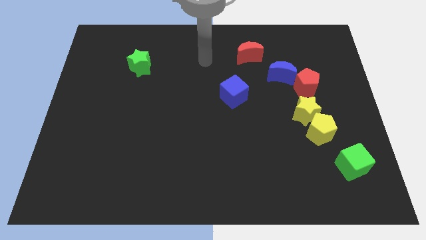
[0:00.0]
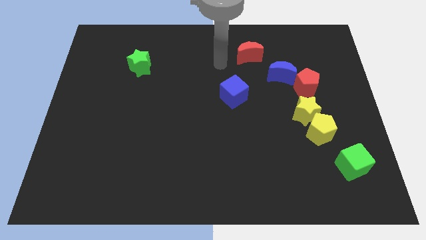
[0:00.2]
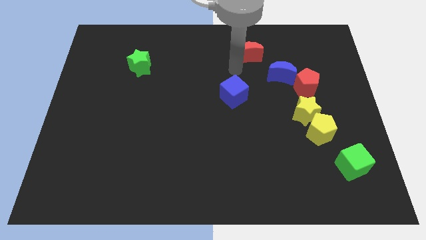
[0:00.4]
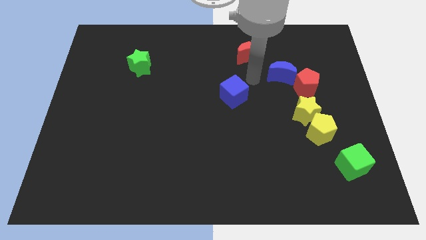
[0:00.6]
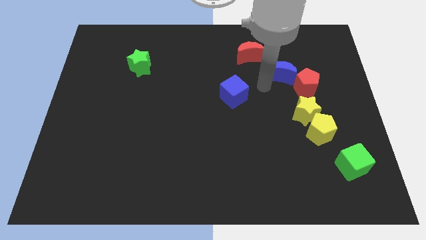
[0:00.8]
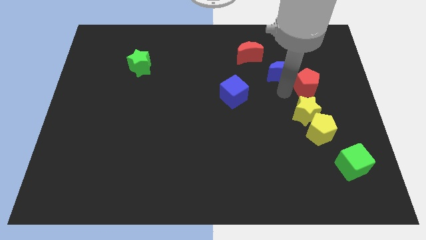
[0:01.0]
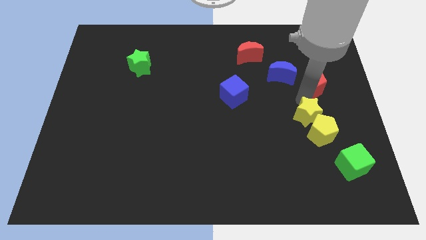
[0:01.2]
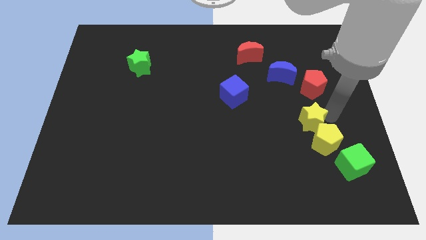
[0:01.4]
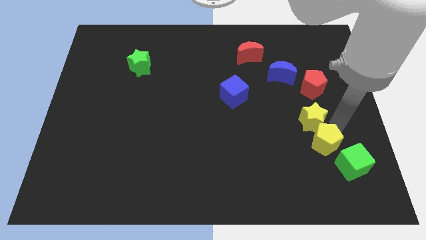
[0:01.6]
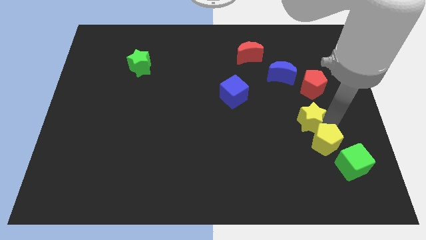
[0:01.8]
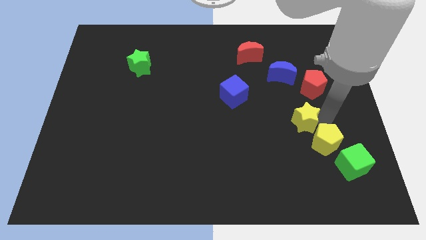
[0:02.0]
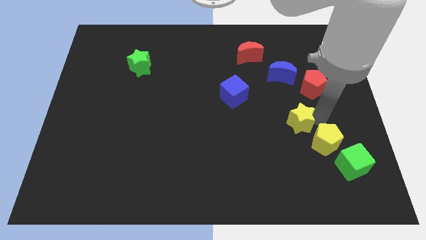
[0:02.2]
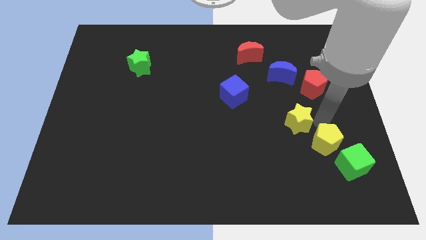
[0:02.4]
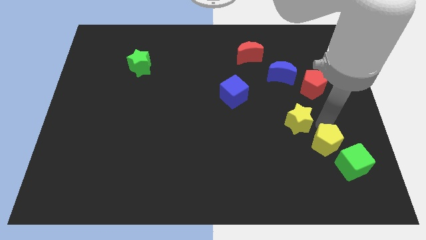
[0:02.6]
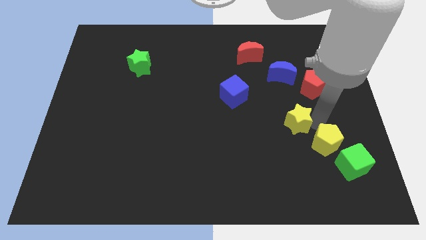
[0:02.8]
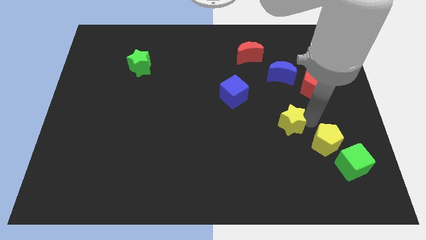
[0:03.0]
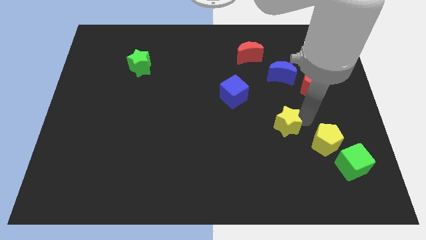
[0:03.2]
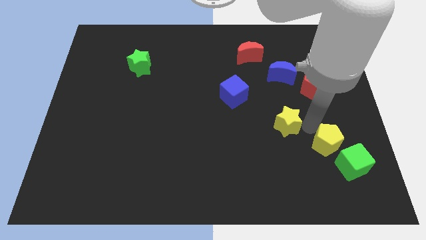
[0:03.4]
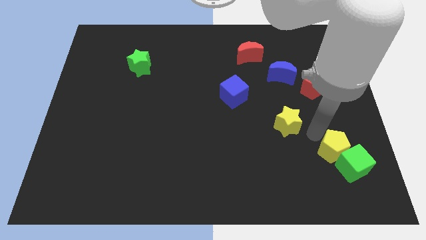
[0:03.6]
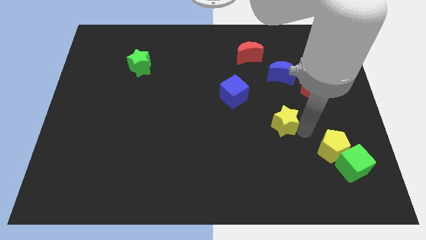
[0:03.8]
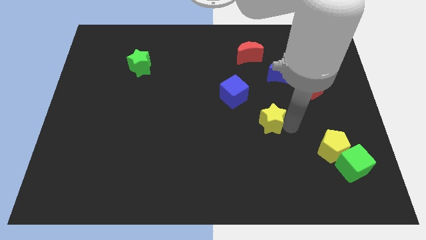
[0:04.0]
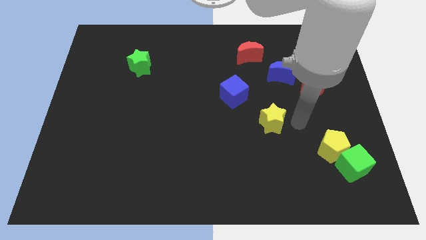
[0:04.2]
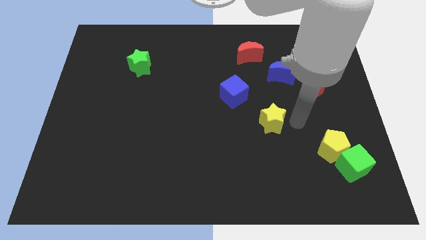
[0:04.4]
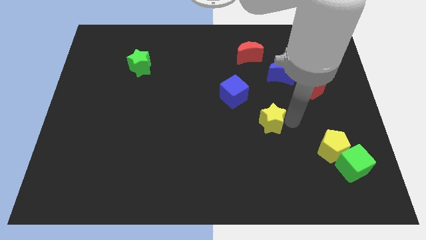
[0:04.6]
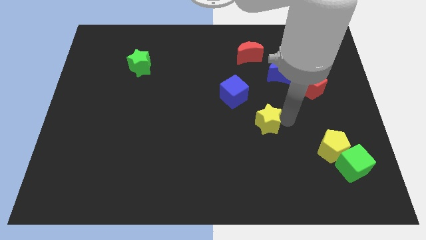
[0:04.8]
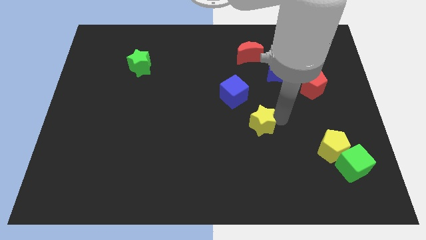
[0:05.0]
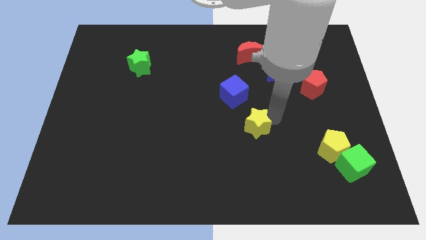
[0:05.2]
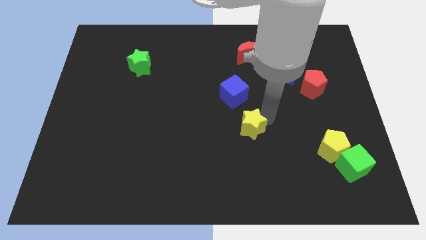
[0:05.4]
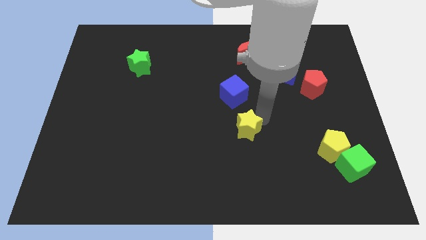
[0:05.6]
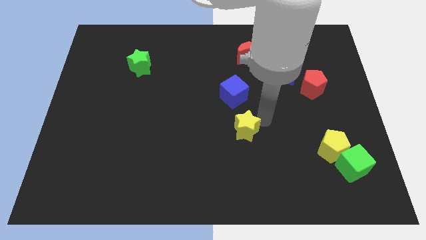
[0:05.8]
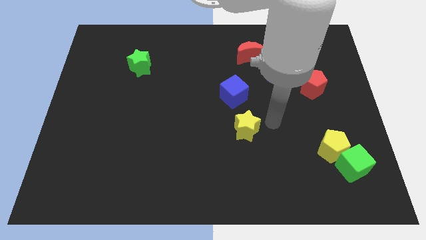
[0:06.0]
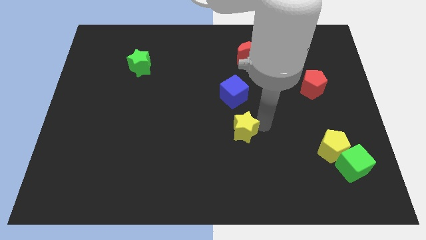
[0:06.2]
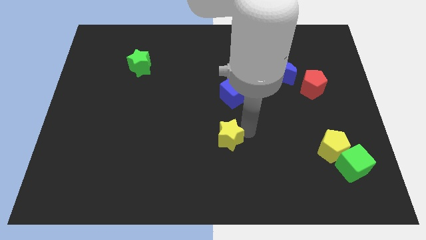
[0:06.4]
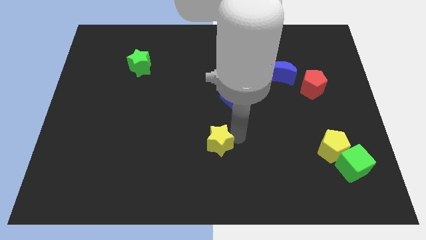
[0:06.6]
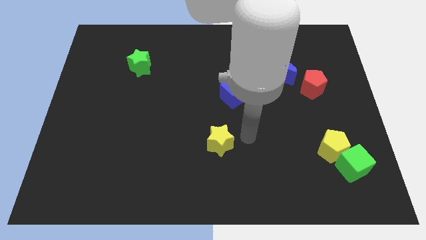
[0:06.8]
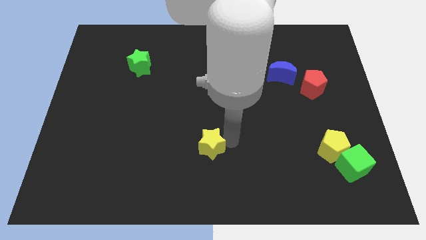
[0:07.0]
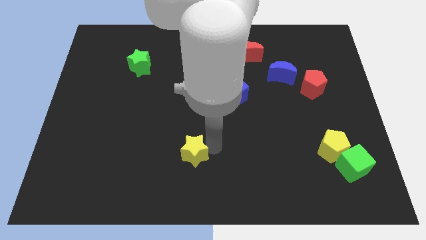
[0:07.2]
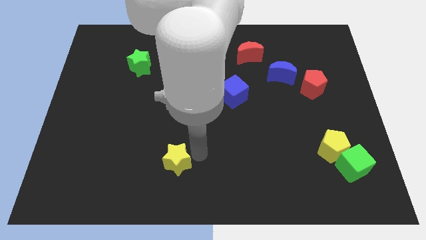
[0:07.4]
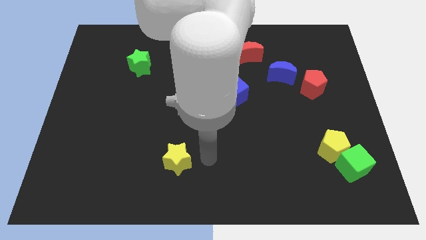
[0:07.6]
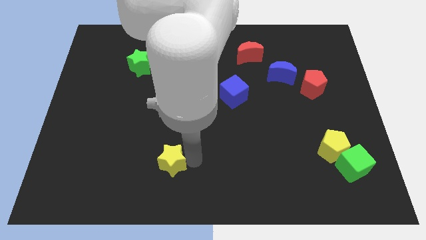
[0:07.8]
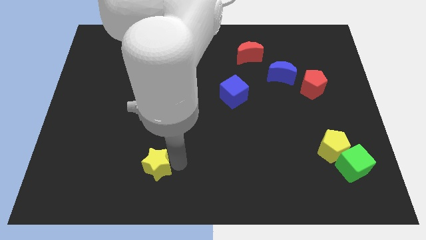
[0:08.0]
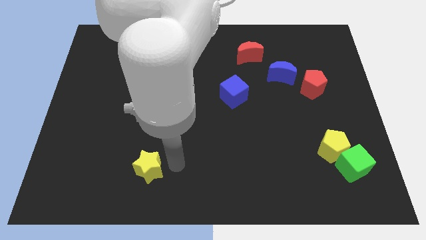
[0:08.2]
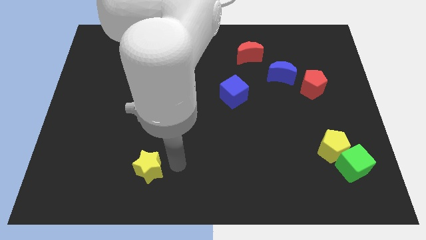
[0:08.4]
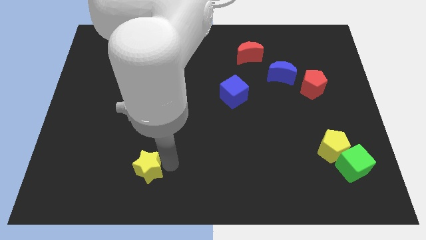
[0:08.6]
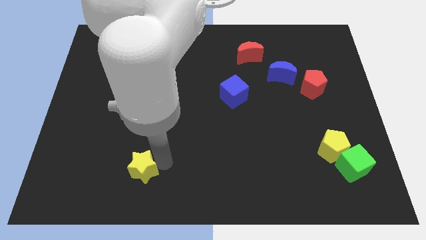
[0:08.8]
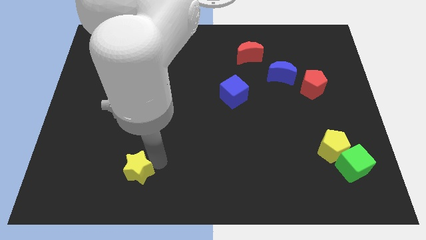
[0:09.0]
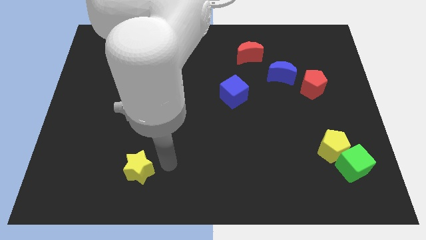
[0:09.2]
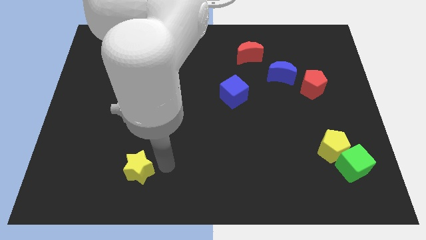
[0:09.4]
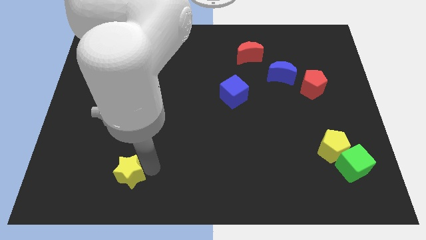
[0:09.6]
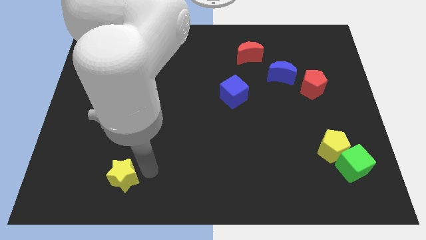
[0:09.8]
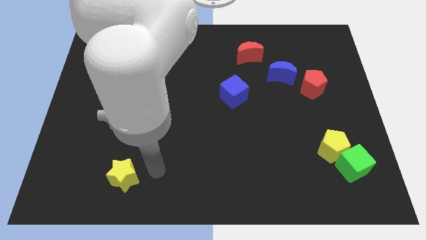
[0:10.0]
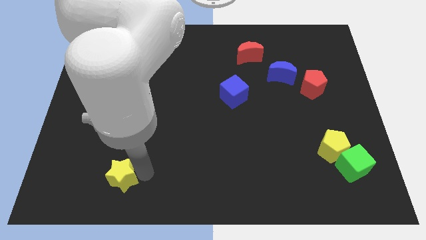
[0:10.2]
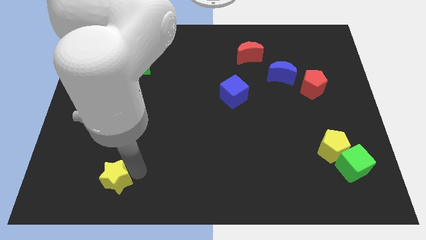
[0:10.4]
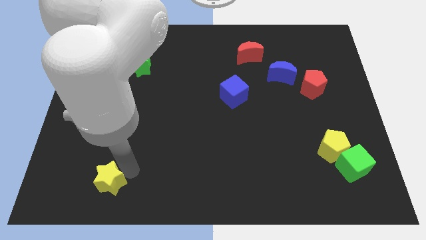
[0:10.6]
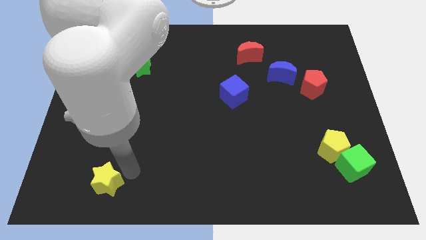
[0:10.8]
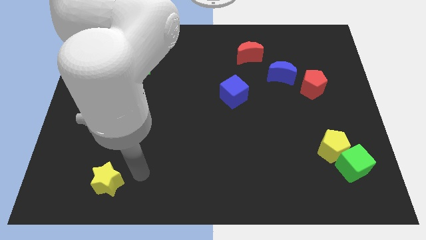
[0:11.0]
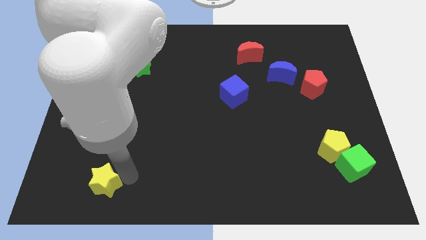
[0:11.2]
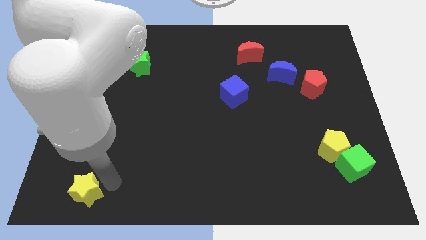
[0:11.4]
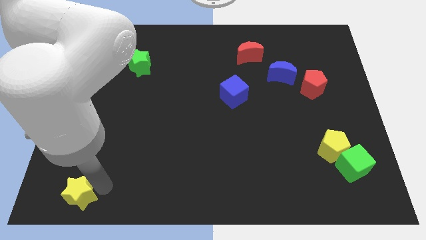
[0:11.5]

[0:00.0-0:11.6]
put the yellow star to the bottom left of the board
